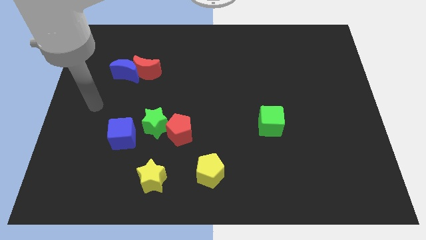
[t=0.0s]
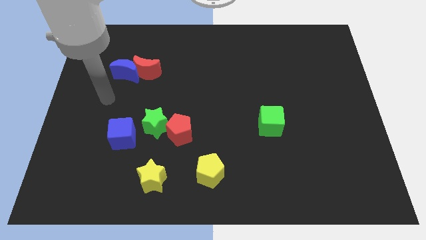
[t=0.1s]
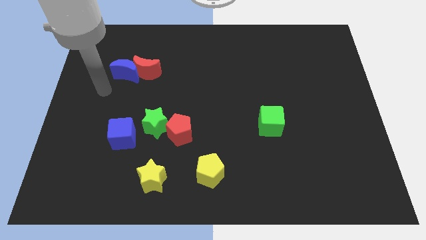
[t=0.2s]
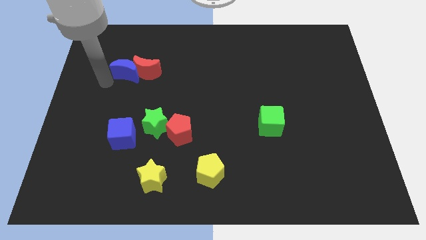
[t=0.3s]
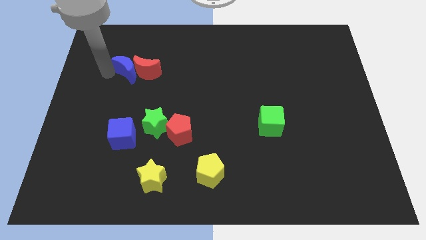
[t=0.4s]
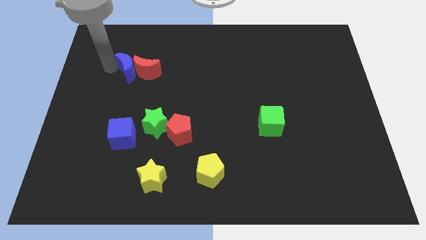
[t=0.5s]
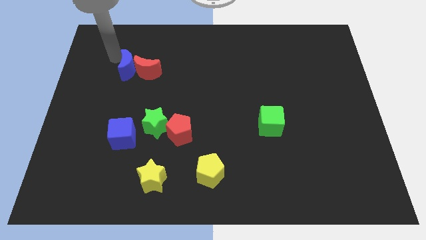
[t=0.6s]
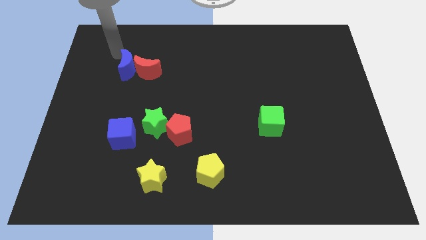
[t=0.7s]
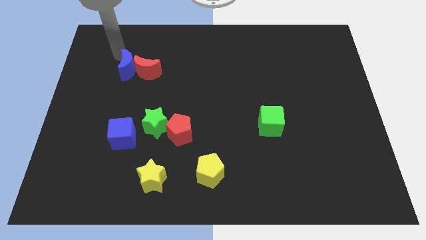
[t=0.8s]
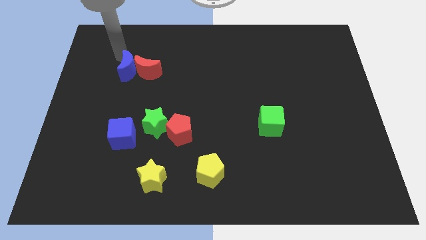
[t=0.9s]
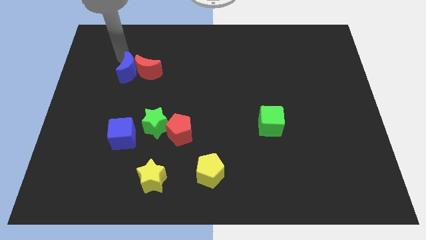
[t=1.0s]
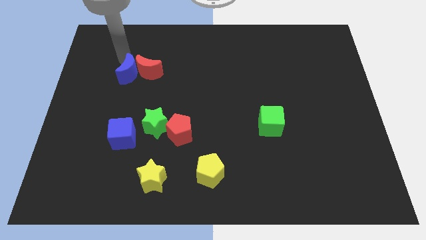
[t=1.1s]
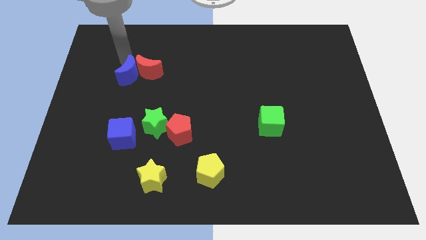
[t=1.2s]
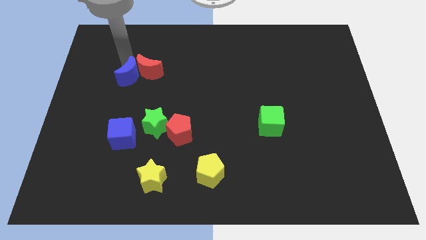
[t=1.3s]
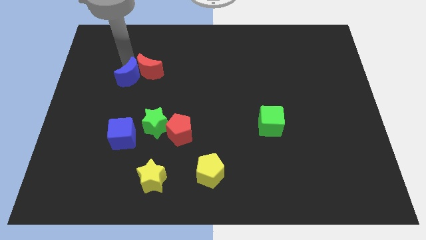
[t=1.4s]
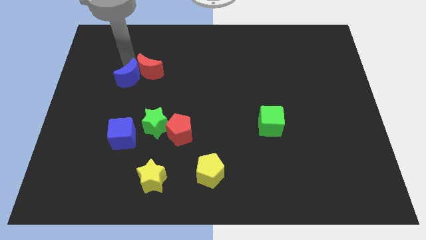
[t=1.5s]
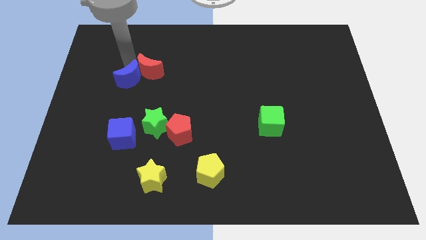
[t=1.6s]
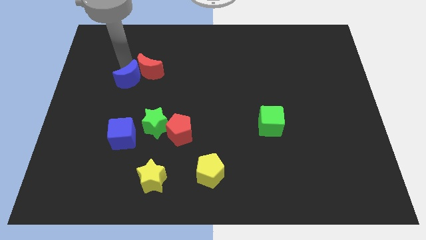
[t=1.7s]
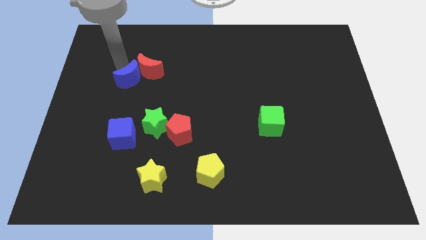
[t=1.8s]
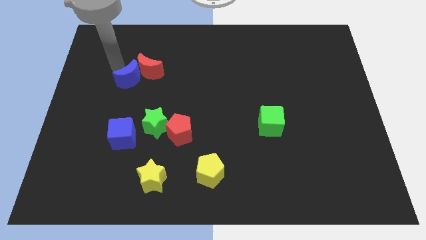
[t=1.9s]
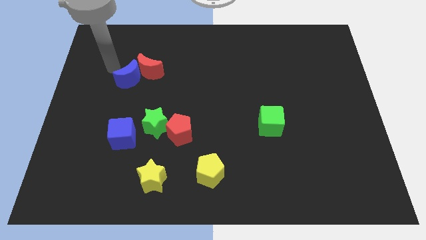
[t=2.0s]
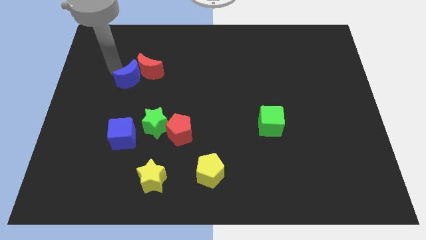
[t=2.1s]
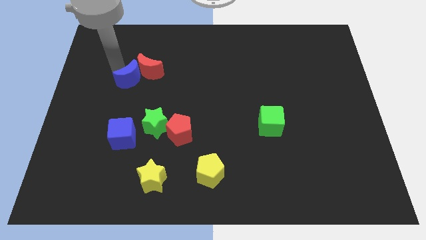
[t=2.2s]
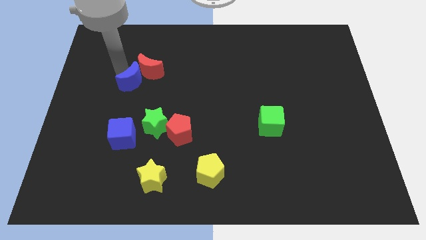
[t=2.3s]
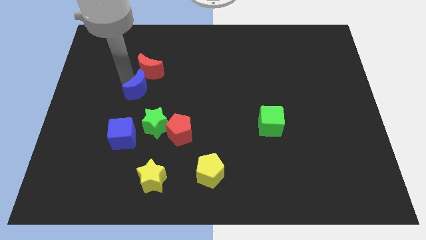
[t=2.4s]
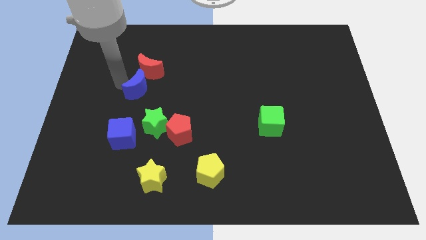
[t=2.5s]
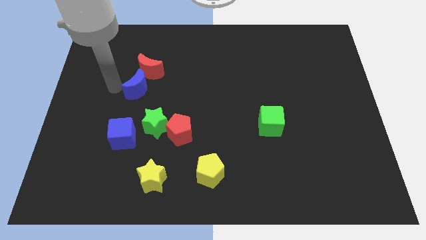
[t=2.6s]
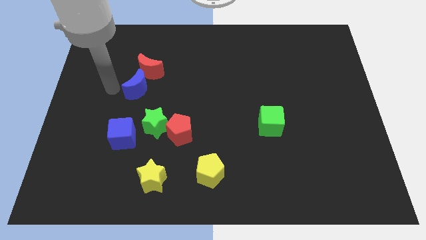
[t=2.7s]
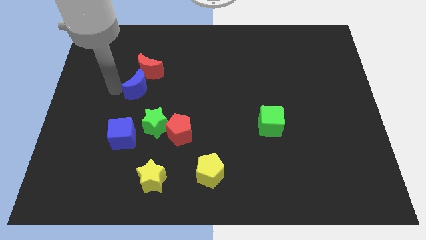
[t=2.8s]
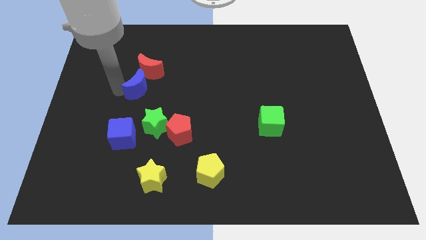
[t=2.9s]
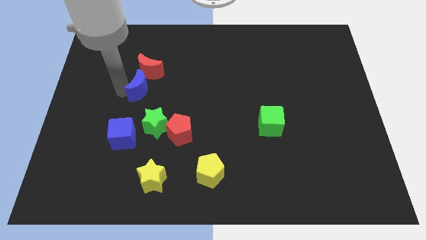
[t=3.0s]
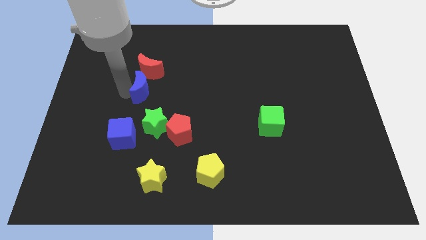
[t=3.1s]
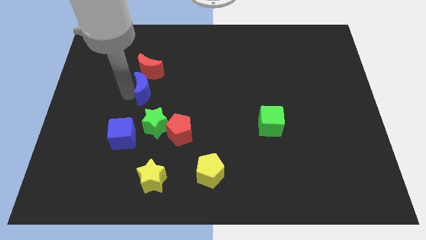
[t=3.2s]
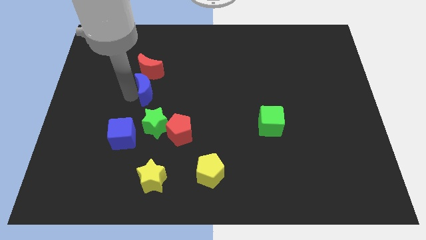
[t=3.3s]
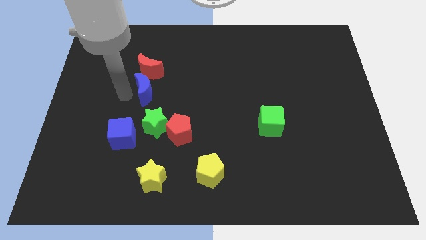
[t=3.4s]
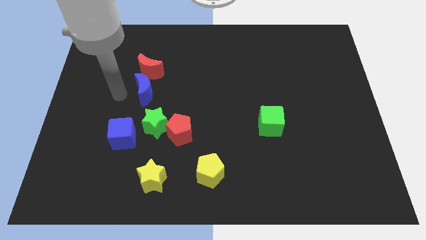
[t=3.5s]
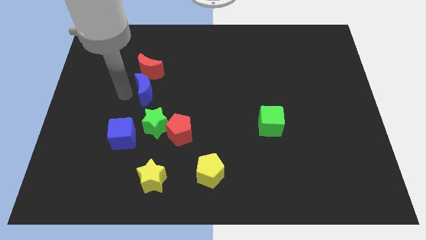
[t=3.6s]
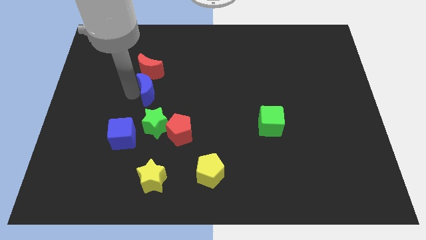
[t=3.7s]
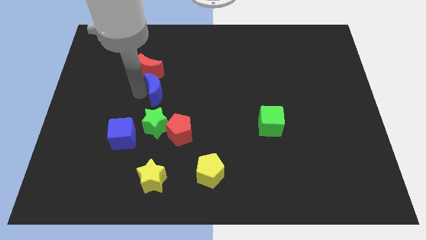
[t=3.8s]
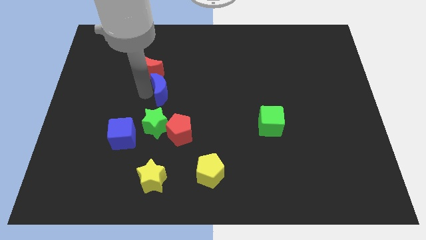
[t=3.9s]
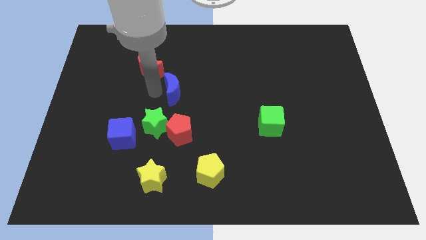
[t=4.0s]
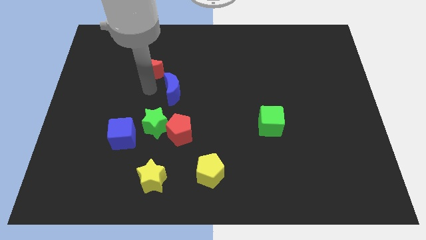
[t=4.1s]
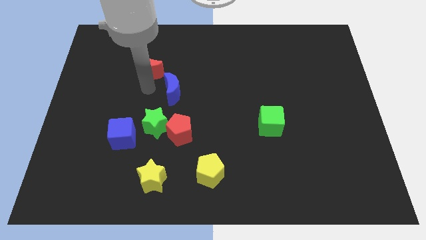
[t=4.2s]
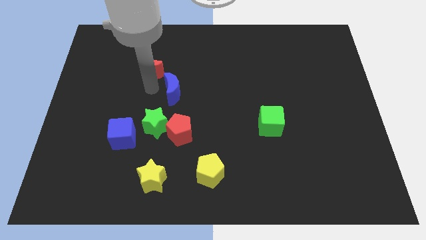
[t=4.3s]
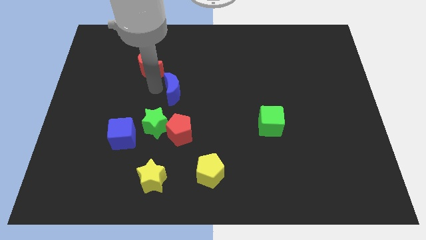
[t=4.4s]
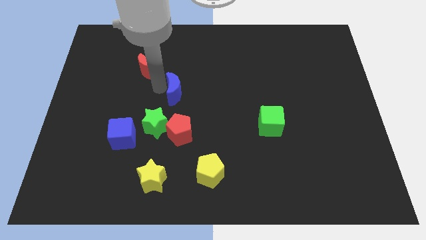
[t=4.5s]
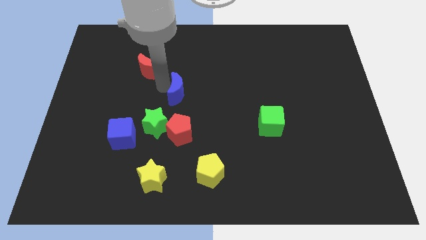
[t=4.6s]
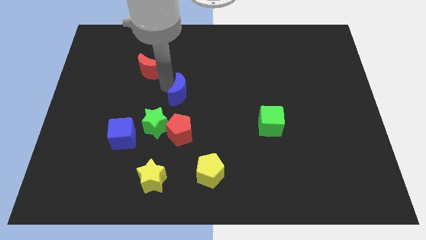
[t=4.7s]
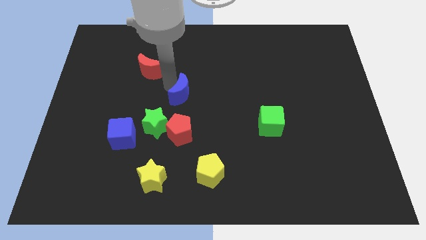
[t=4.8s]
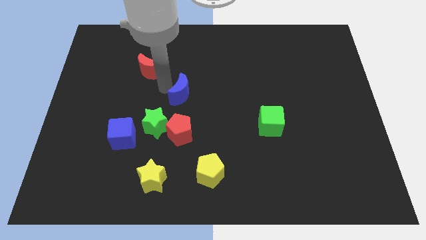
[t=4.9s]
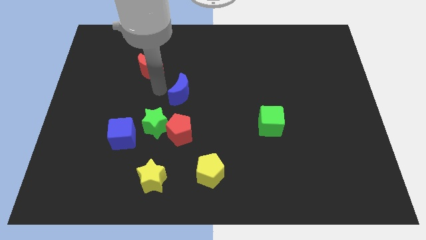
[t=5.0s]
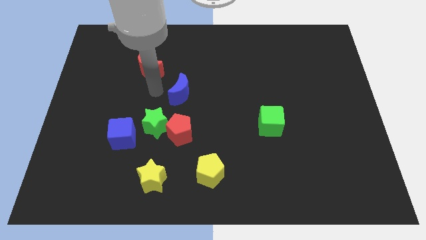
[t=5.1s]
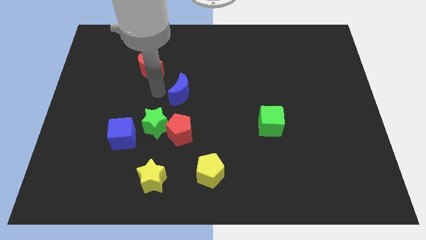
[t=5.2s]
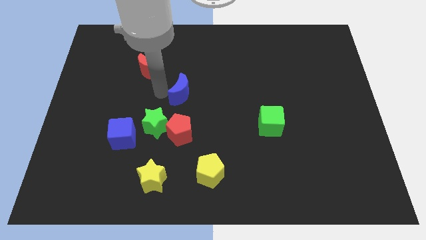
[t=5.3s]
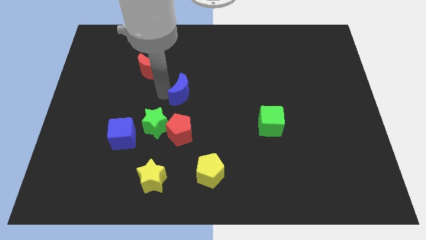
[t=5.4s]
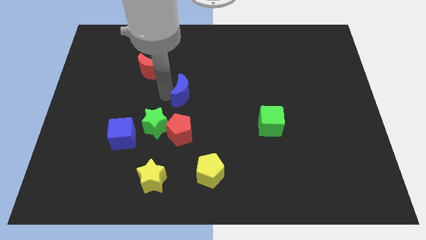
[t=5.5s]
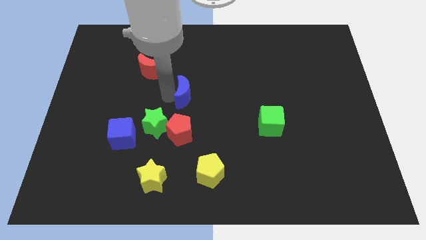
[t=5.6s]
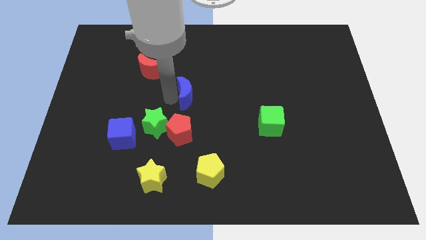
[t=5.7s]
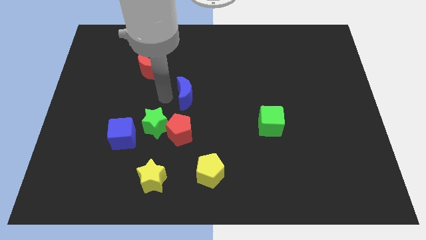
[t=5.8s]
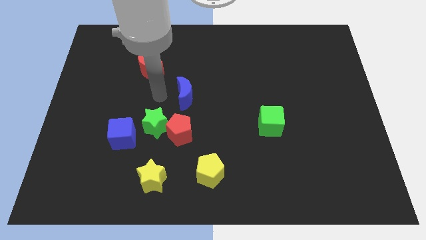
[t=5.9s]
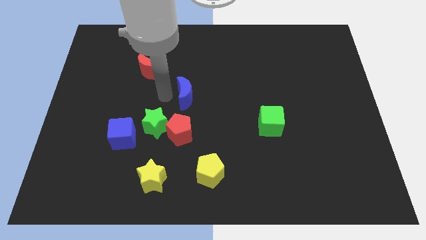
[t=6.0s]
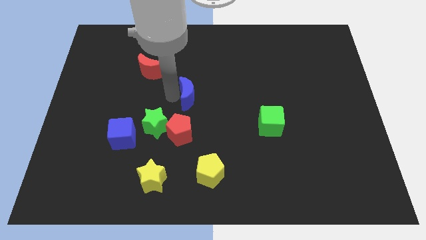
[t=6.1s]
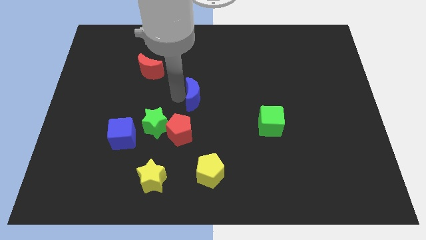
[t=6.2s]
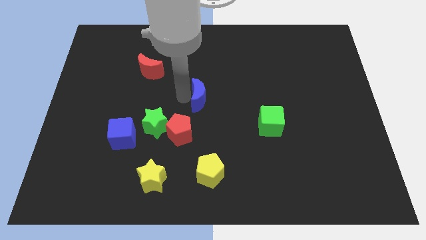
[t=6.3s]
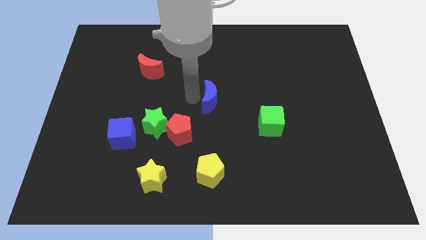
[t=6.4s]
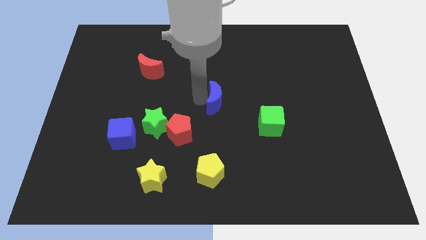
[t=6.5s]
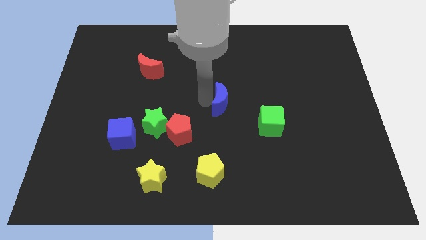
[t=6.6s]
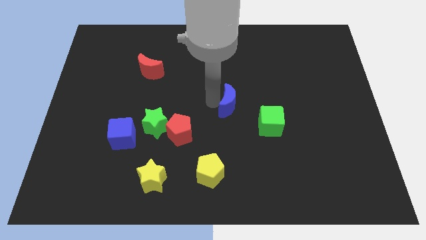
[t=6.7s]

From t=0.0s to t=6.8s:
put the blue moon to the top left of the green cube

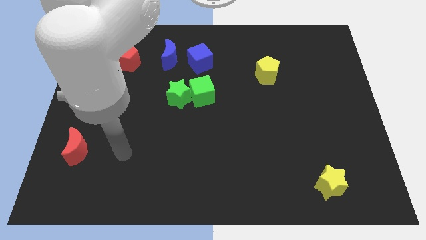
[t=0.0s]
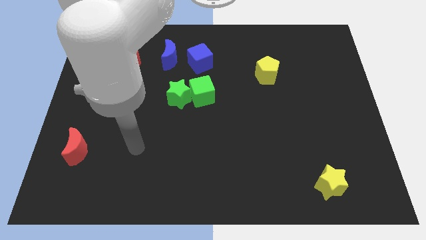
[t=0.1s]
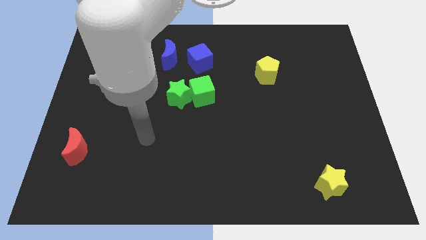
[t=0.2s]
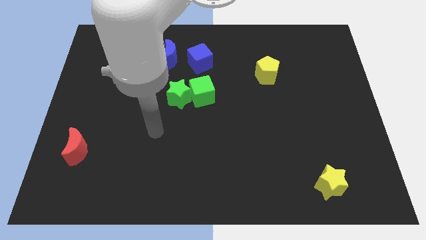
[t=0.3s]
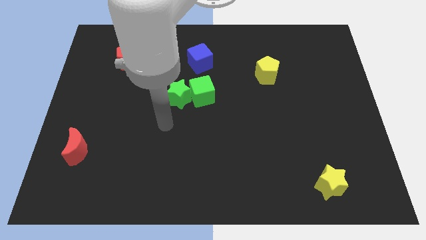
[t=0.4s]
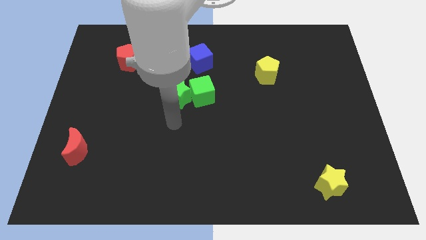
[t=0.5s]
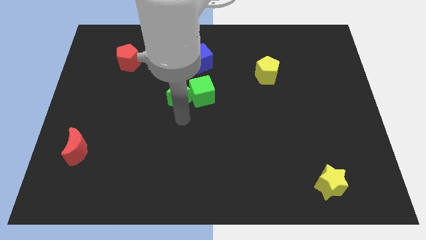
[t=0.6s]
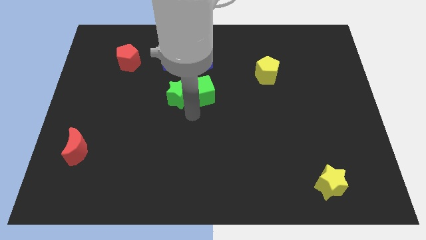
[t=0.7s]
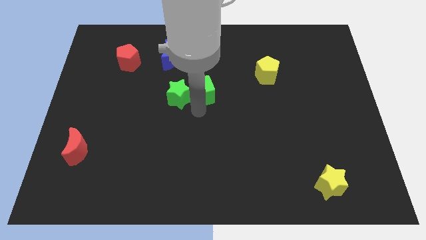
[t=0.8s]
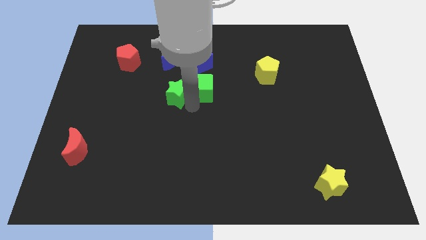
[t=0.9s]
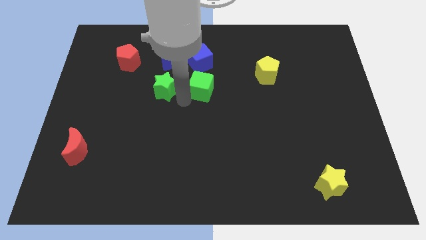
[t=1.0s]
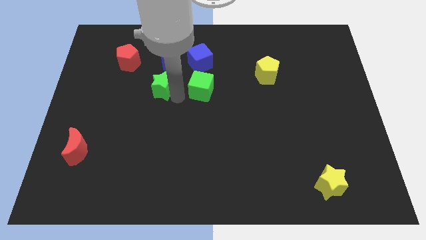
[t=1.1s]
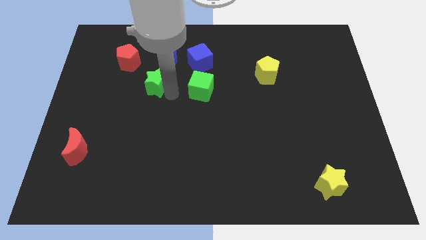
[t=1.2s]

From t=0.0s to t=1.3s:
push the green star diagonally down and to the right of the red pentagon
